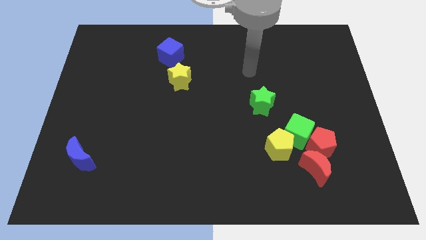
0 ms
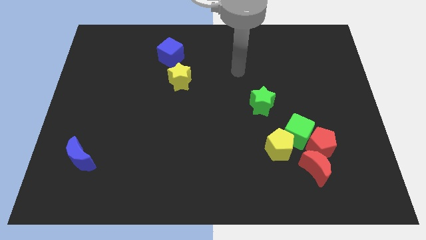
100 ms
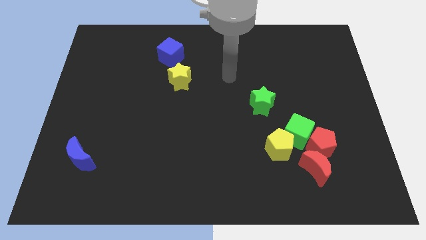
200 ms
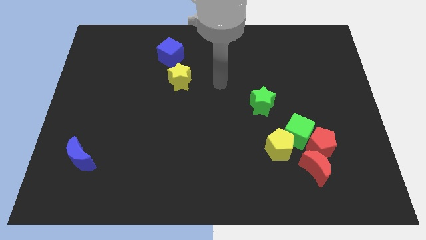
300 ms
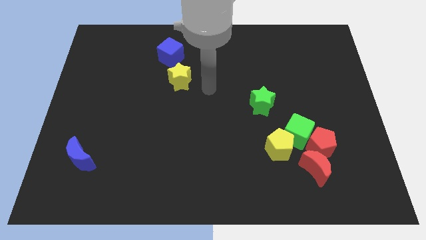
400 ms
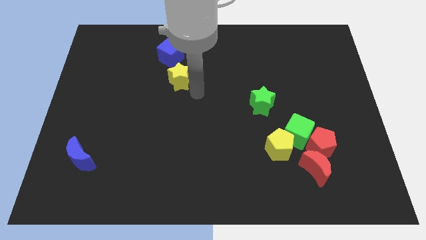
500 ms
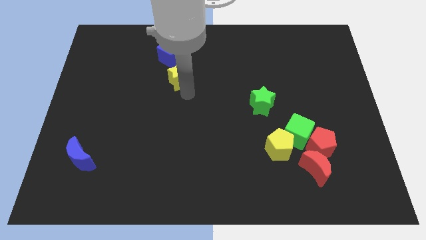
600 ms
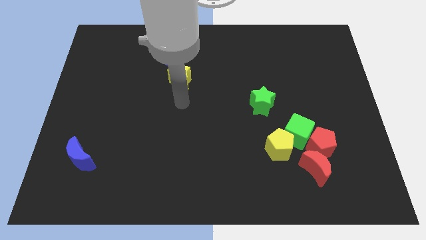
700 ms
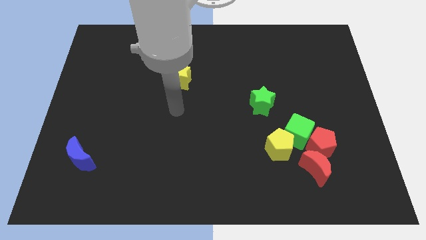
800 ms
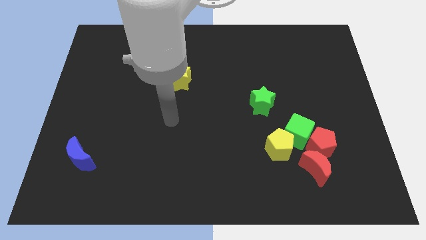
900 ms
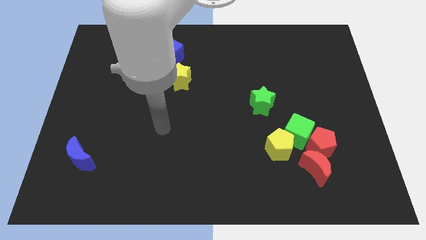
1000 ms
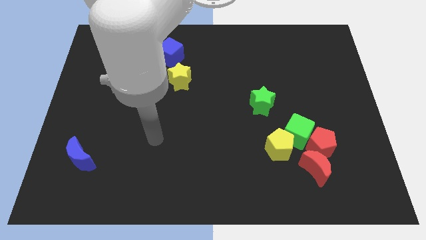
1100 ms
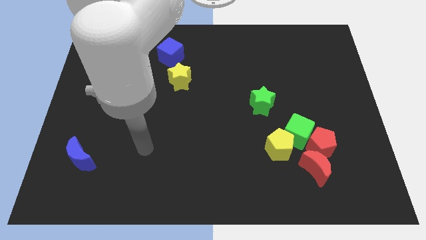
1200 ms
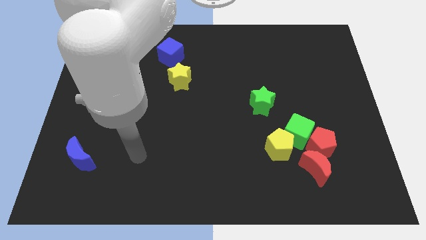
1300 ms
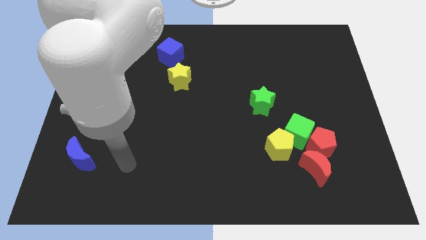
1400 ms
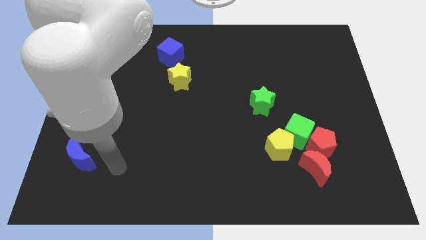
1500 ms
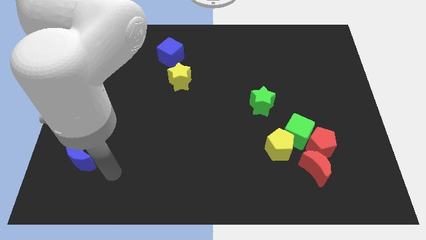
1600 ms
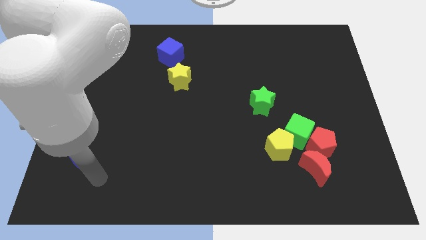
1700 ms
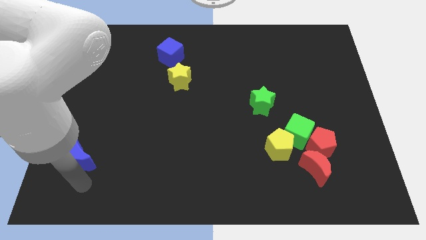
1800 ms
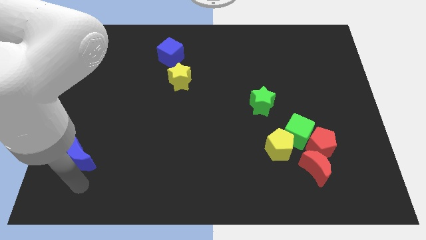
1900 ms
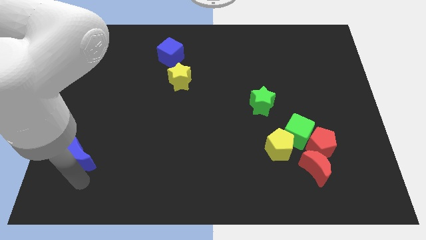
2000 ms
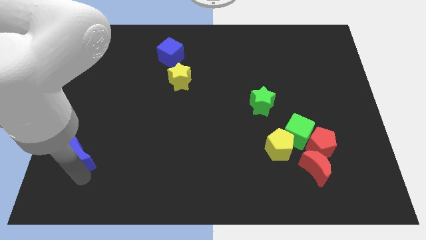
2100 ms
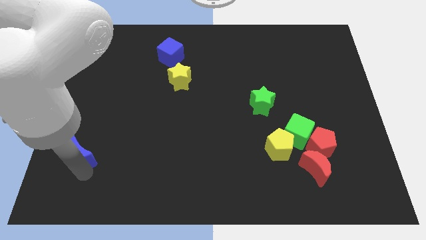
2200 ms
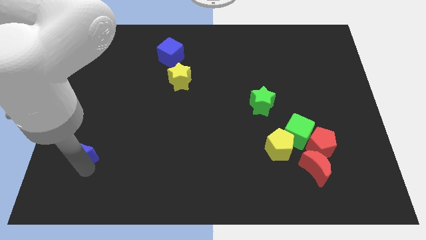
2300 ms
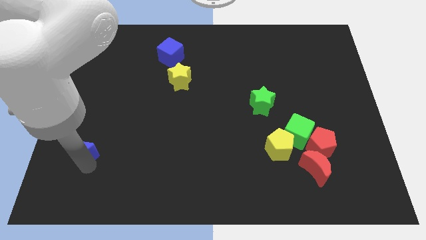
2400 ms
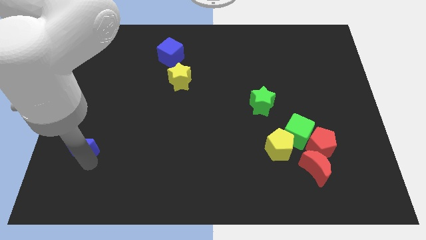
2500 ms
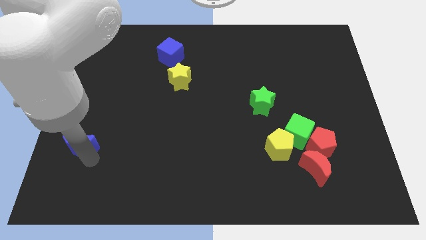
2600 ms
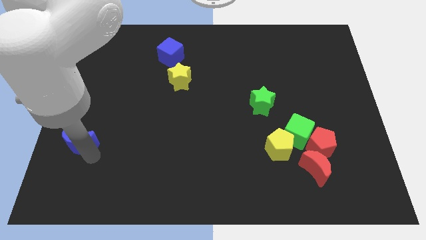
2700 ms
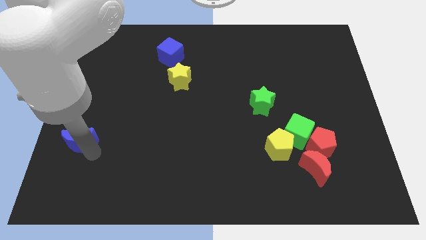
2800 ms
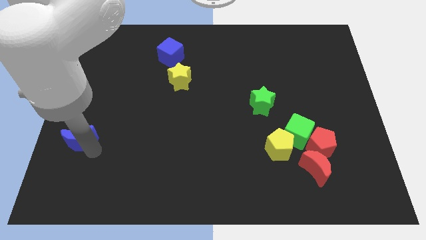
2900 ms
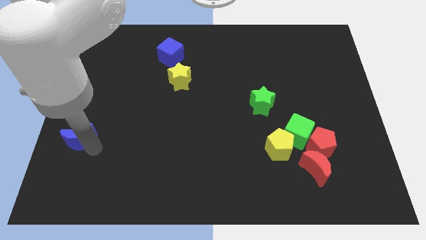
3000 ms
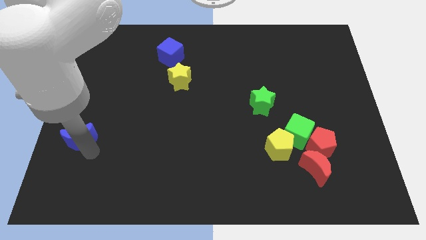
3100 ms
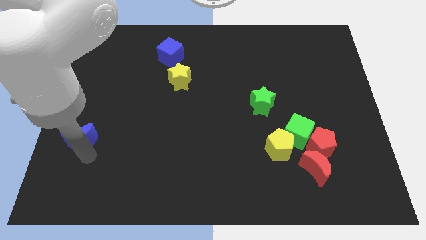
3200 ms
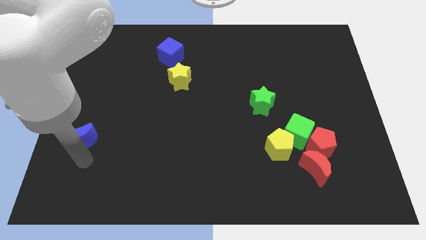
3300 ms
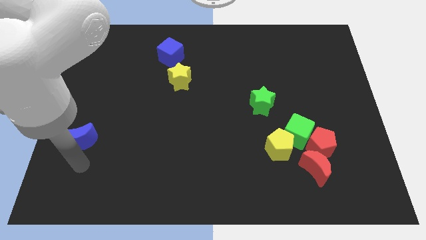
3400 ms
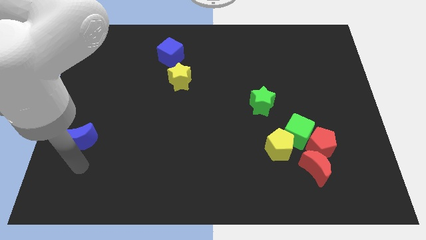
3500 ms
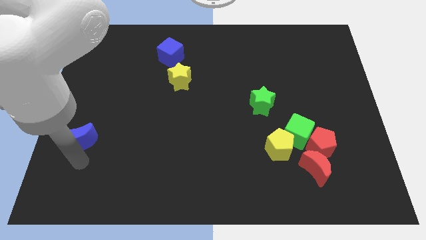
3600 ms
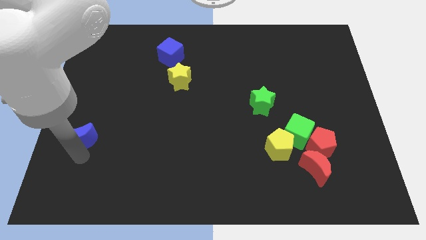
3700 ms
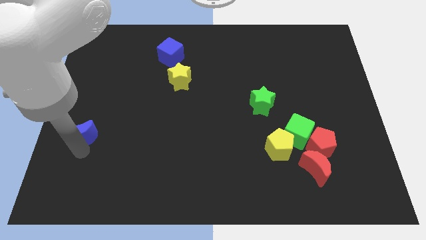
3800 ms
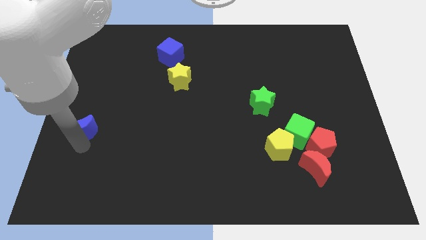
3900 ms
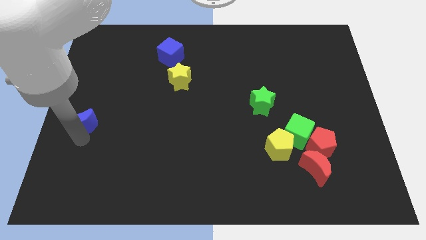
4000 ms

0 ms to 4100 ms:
move the blue moon upwards a little bit

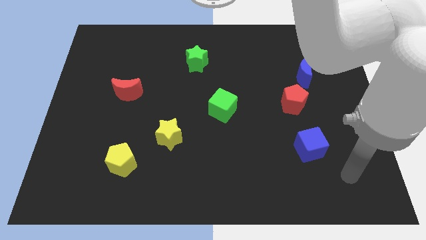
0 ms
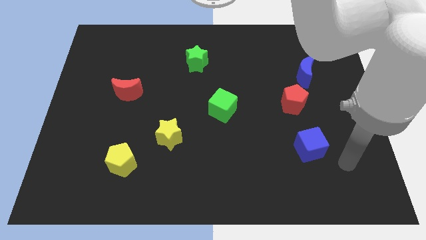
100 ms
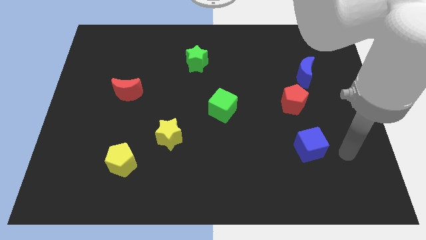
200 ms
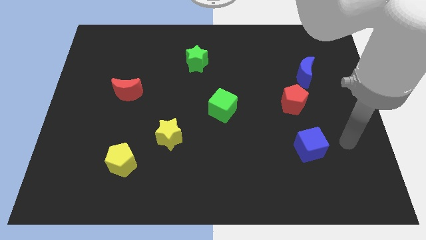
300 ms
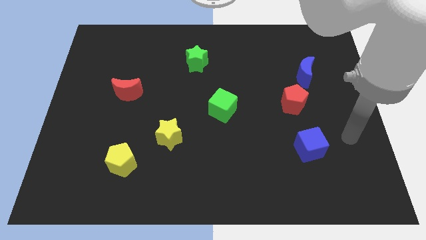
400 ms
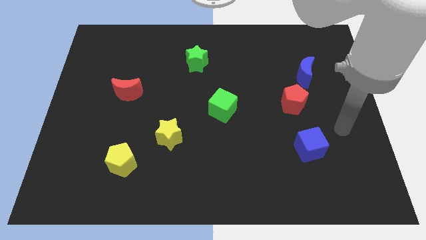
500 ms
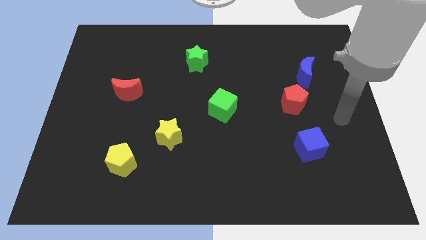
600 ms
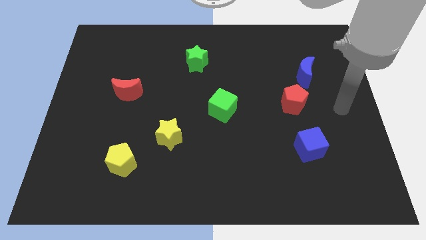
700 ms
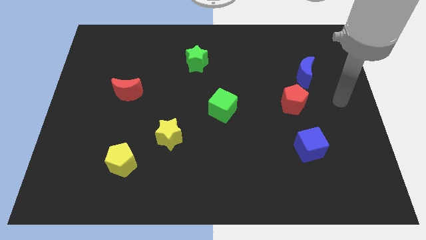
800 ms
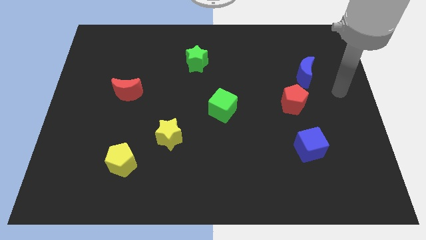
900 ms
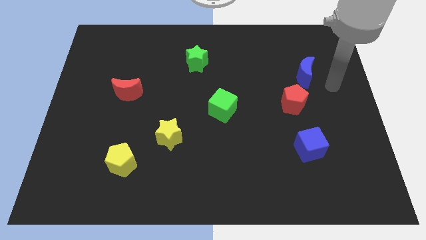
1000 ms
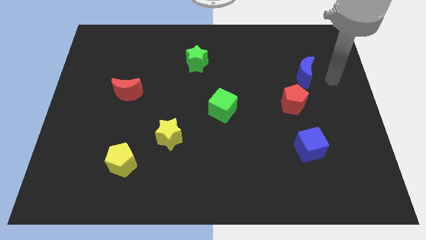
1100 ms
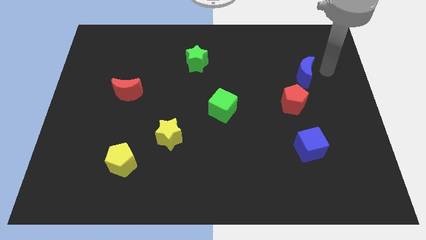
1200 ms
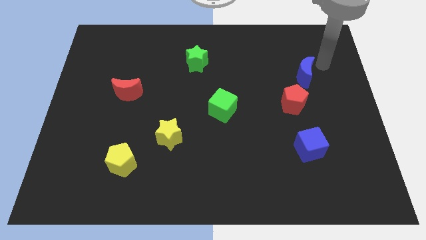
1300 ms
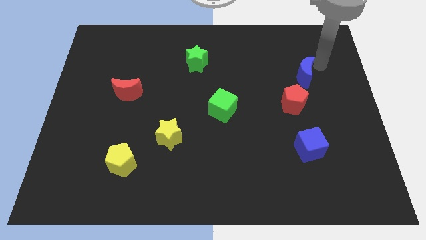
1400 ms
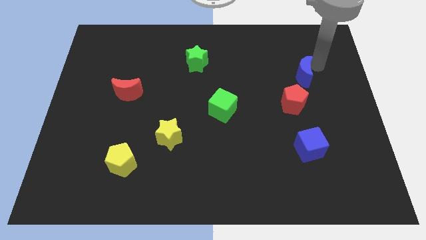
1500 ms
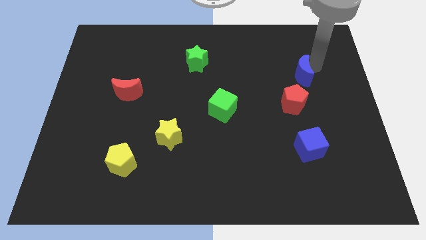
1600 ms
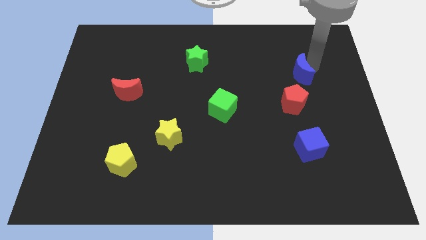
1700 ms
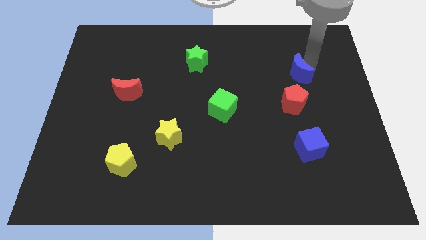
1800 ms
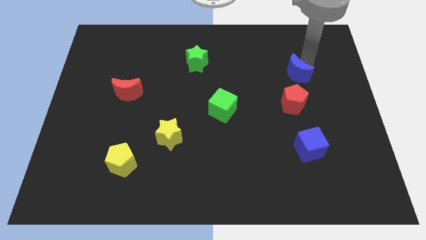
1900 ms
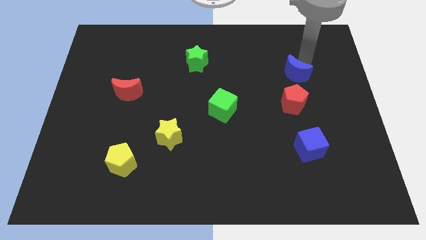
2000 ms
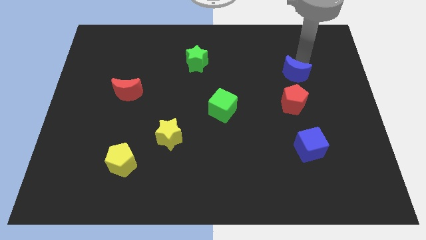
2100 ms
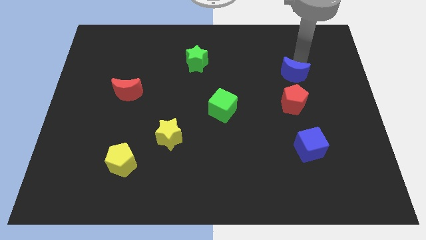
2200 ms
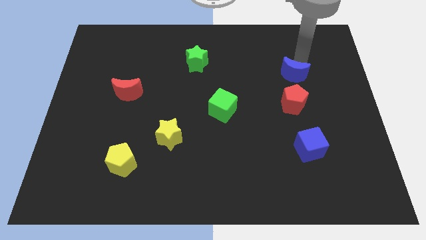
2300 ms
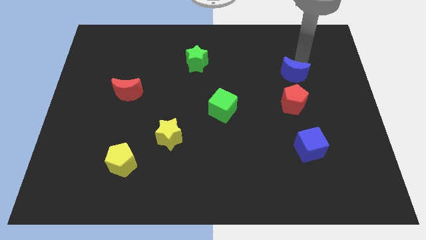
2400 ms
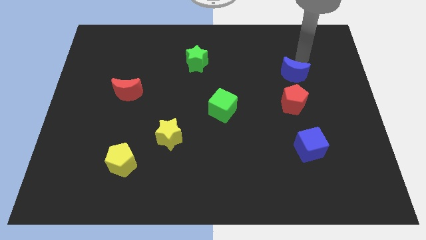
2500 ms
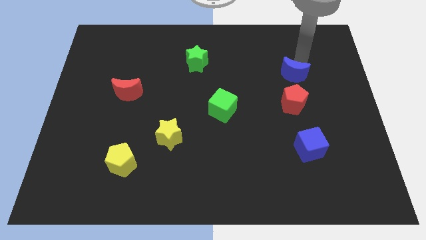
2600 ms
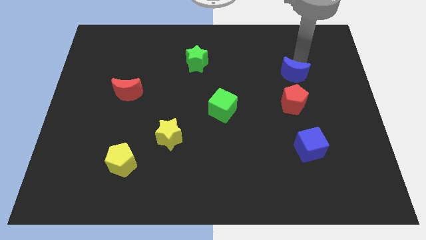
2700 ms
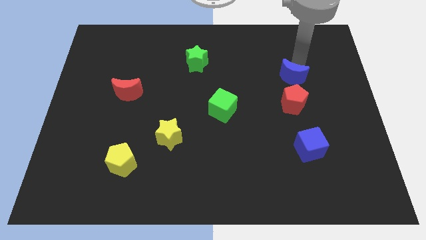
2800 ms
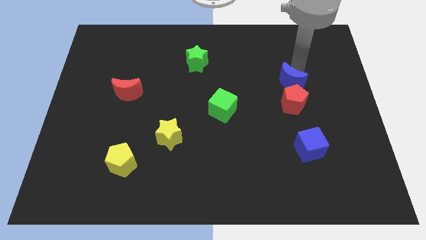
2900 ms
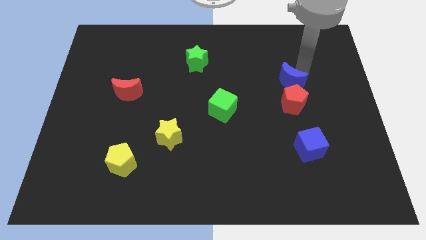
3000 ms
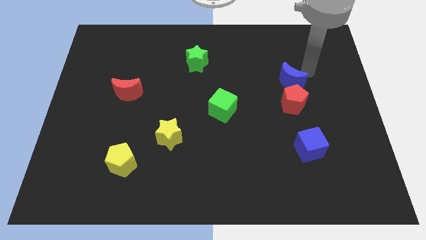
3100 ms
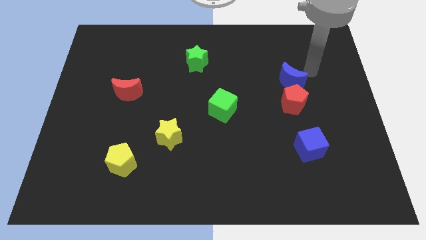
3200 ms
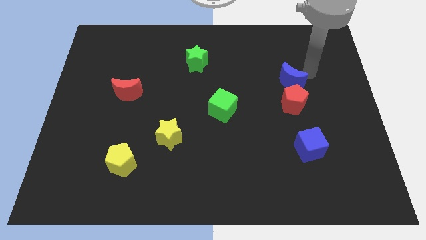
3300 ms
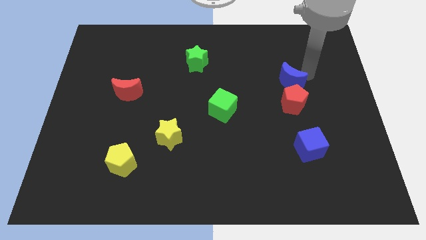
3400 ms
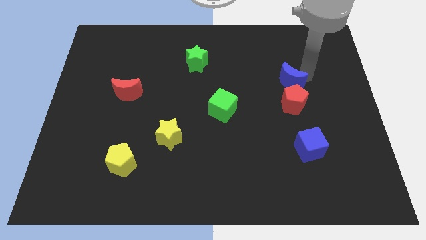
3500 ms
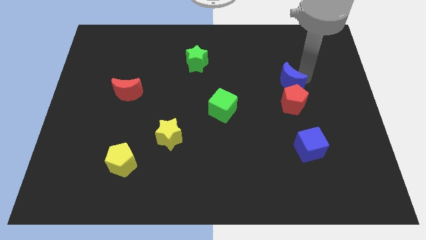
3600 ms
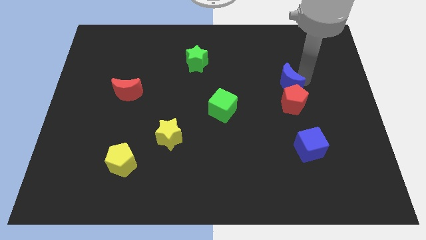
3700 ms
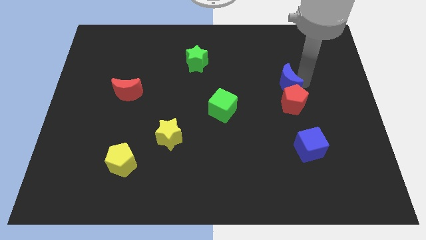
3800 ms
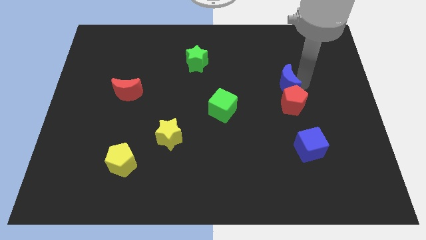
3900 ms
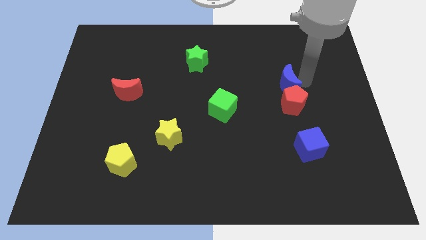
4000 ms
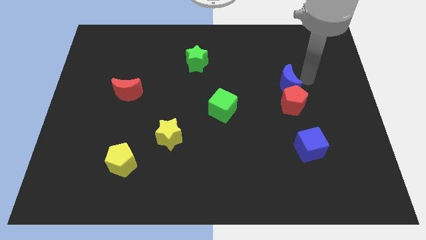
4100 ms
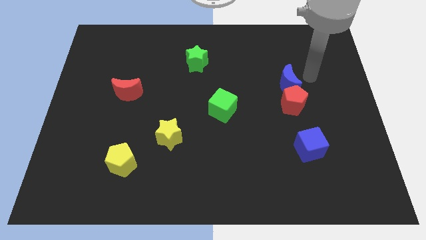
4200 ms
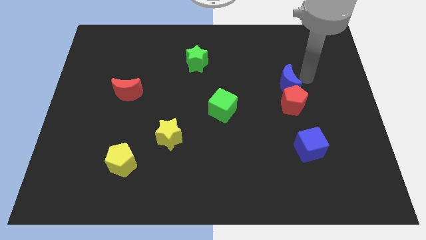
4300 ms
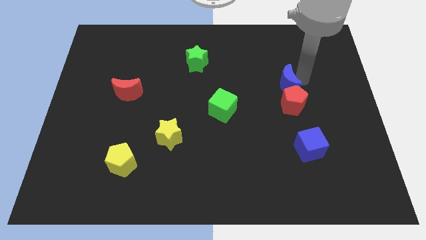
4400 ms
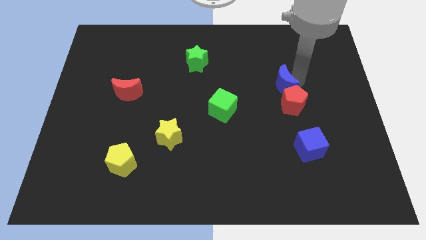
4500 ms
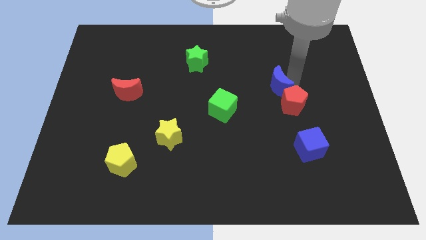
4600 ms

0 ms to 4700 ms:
slide the blue moon a bit down and left diagonally
